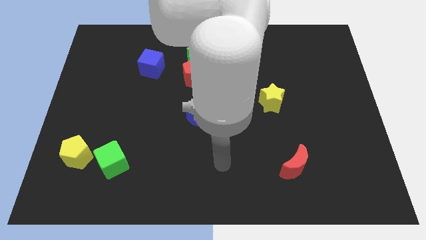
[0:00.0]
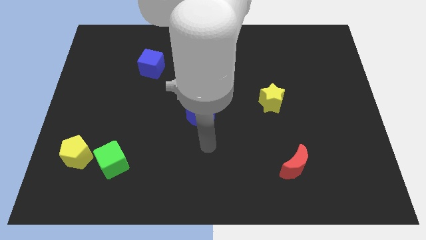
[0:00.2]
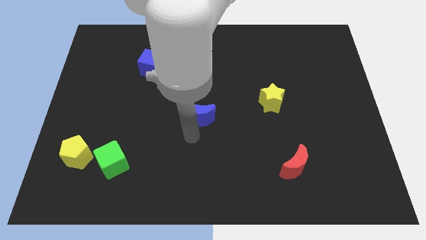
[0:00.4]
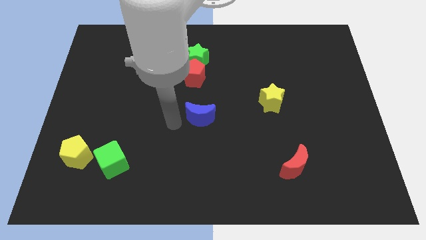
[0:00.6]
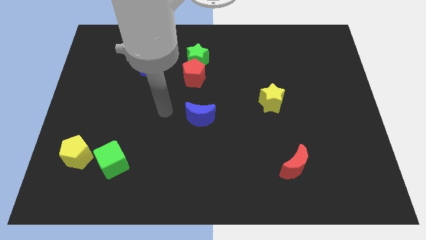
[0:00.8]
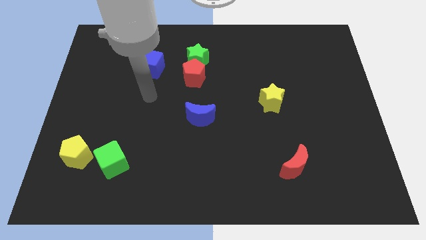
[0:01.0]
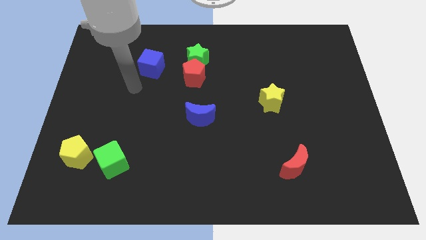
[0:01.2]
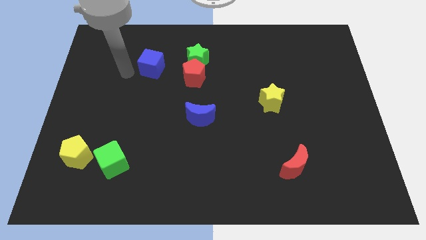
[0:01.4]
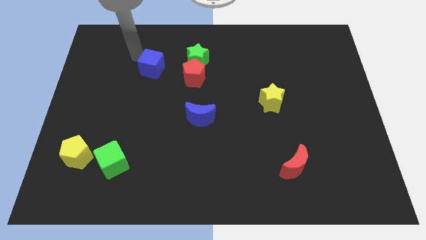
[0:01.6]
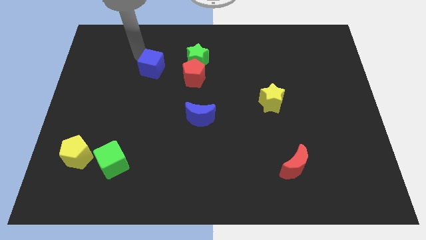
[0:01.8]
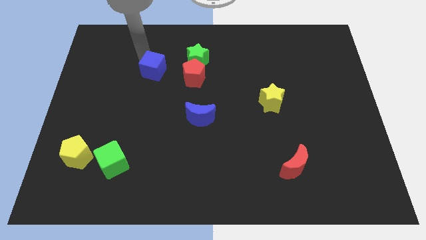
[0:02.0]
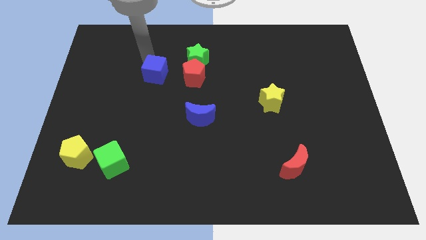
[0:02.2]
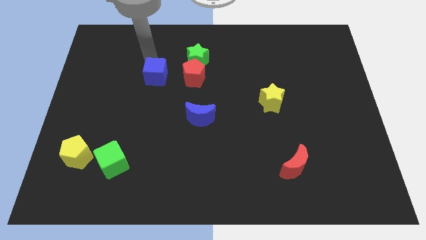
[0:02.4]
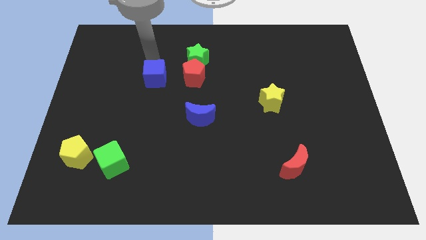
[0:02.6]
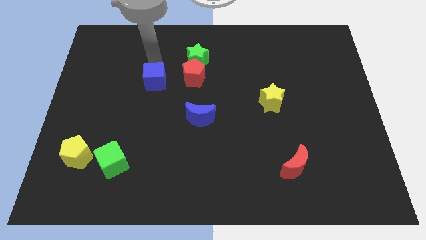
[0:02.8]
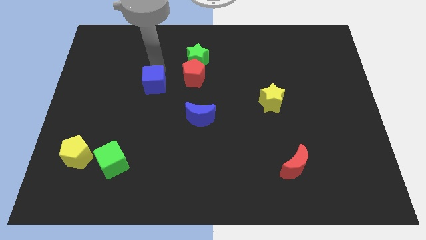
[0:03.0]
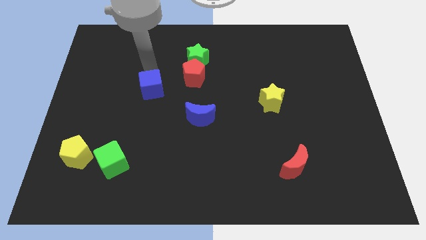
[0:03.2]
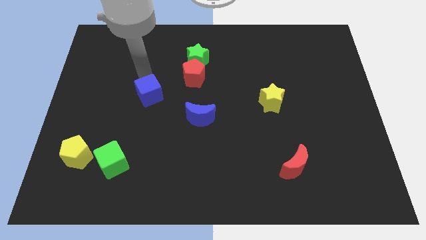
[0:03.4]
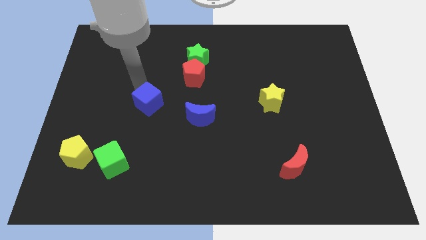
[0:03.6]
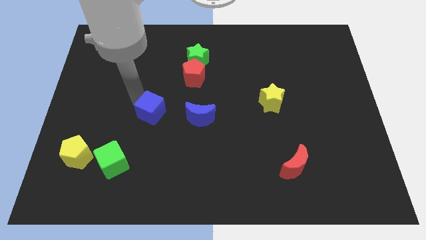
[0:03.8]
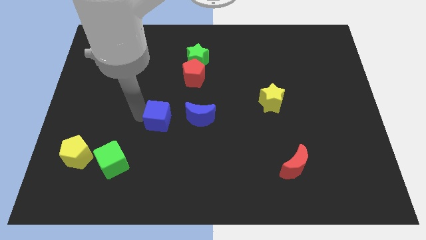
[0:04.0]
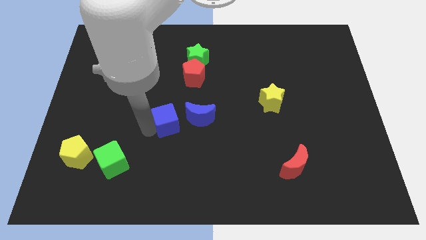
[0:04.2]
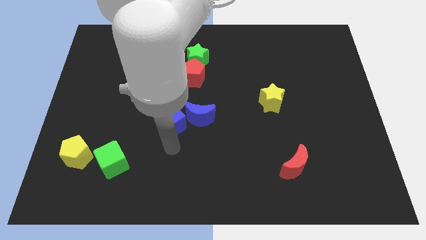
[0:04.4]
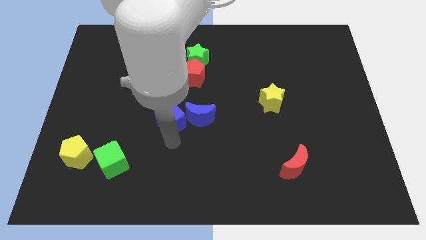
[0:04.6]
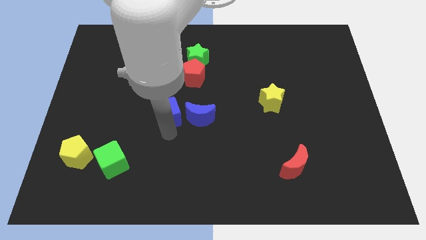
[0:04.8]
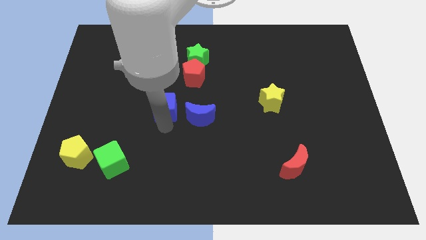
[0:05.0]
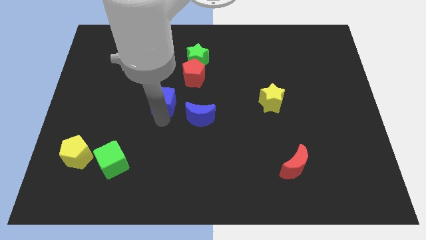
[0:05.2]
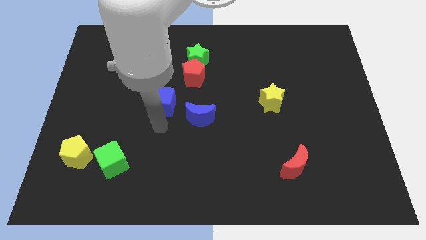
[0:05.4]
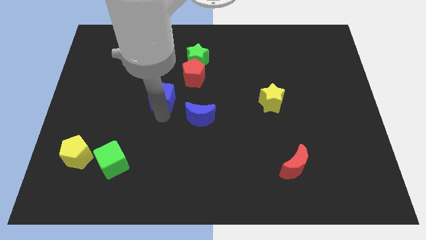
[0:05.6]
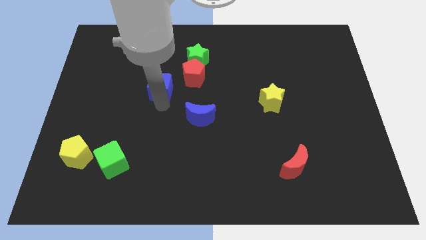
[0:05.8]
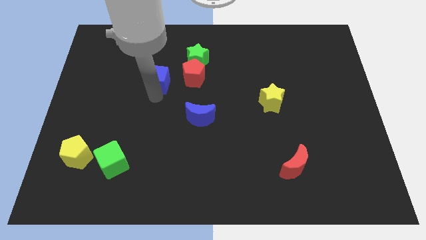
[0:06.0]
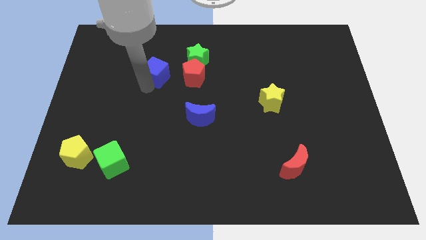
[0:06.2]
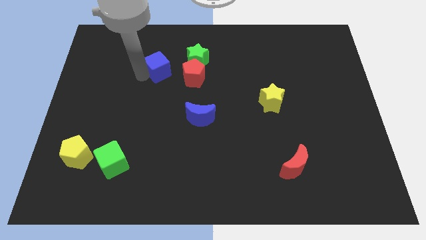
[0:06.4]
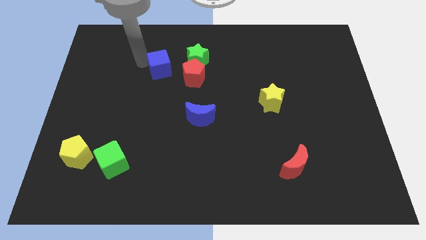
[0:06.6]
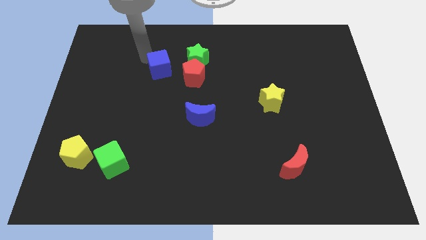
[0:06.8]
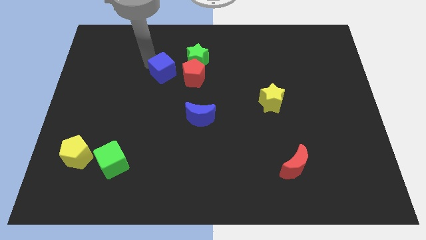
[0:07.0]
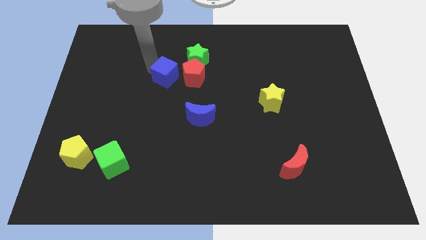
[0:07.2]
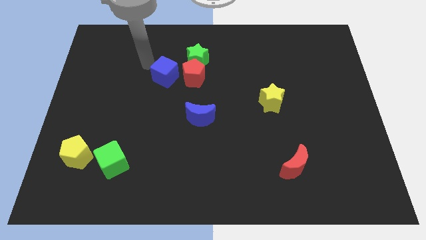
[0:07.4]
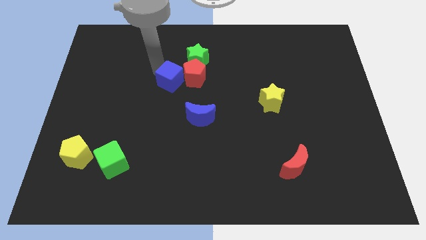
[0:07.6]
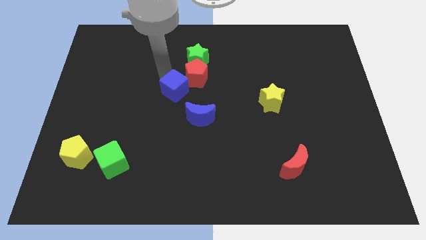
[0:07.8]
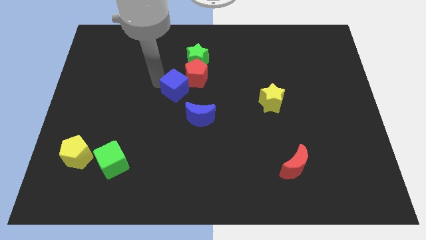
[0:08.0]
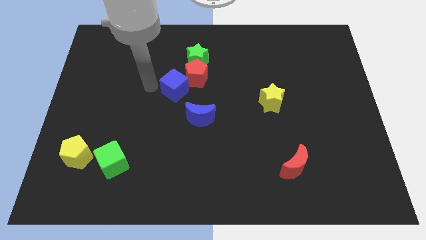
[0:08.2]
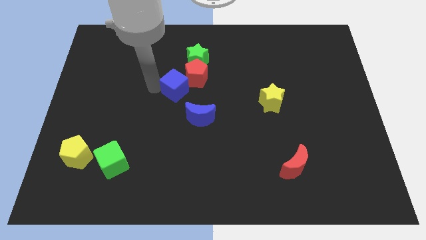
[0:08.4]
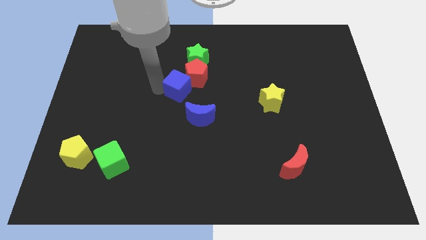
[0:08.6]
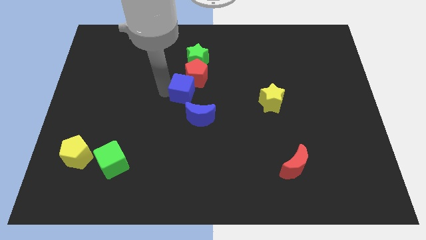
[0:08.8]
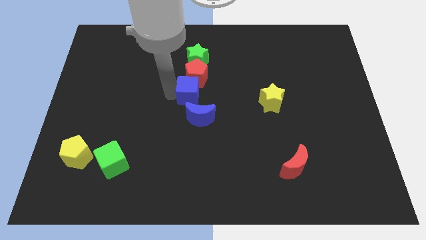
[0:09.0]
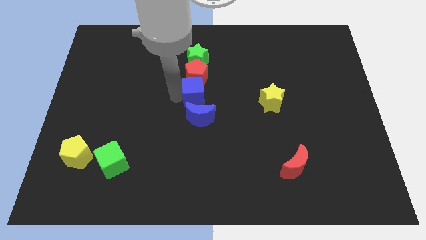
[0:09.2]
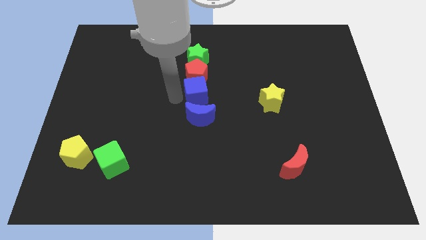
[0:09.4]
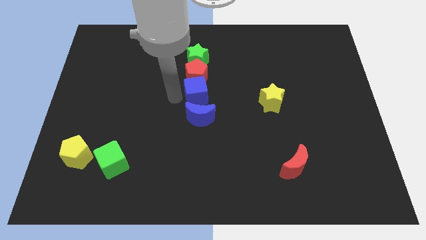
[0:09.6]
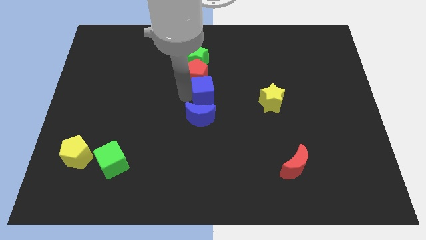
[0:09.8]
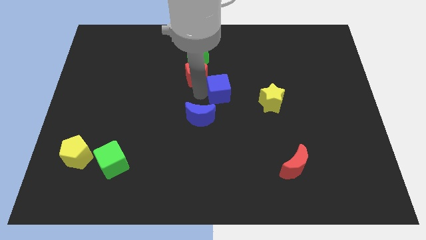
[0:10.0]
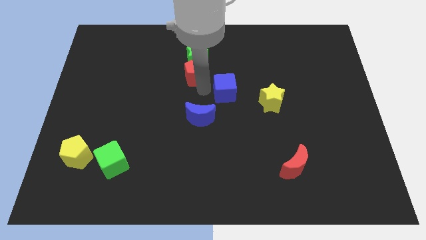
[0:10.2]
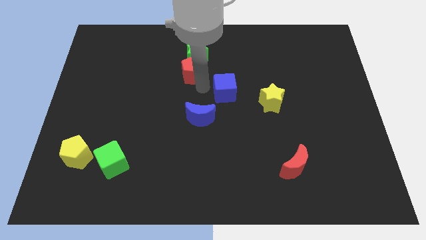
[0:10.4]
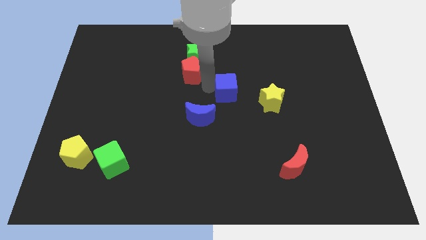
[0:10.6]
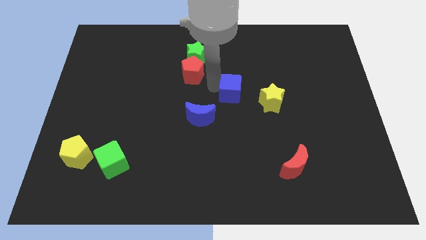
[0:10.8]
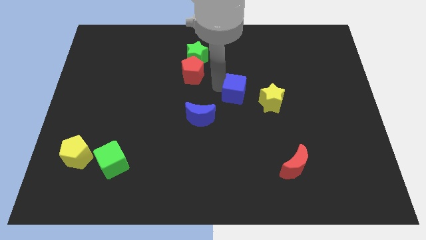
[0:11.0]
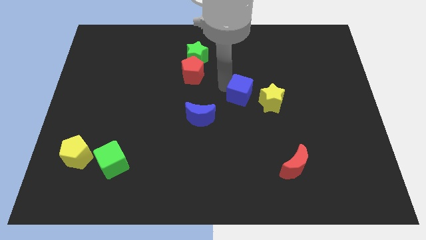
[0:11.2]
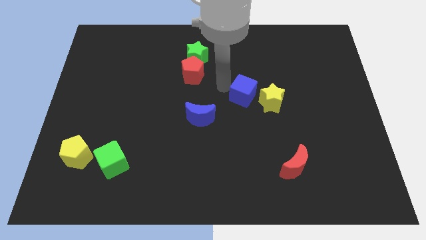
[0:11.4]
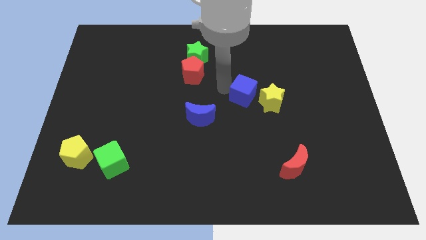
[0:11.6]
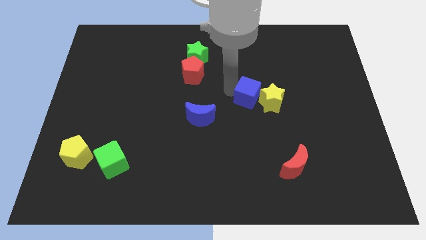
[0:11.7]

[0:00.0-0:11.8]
put the blue cube next to the yellow star
